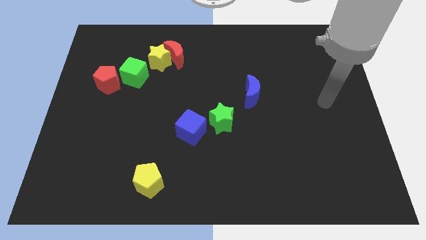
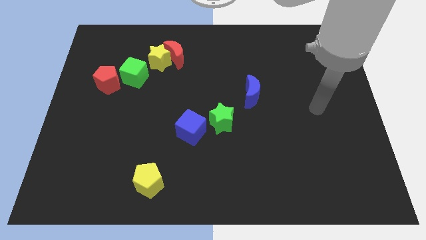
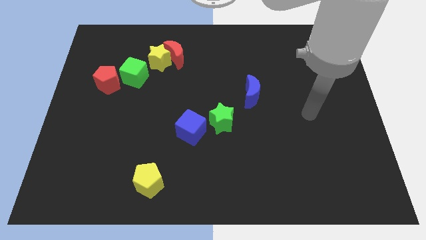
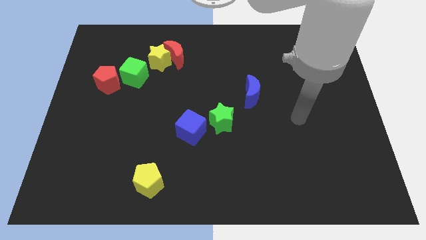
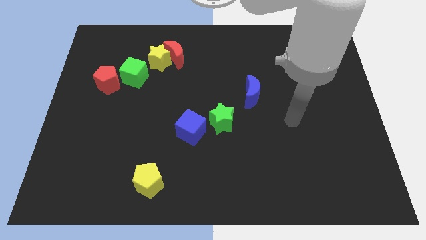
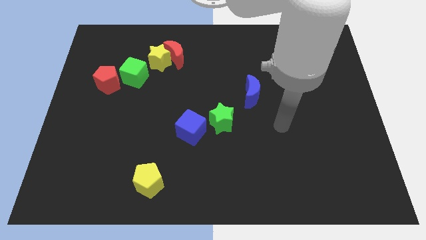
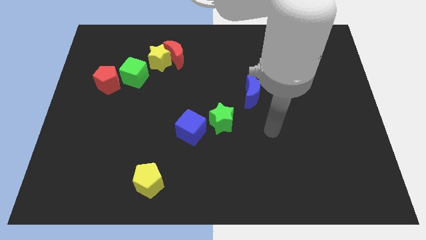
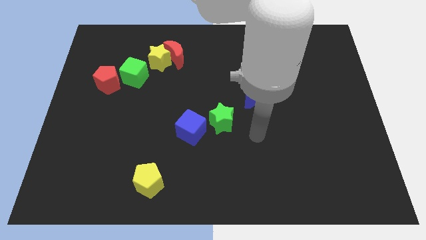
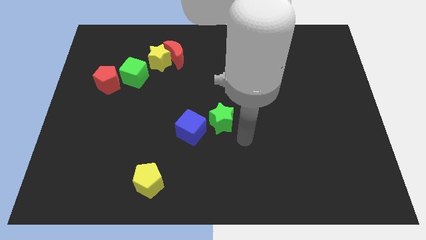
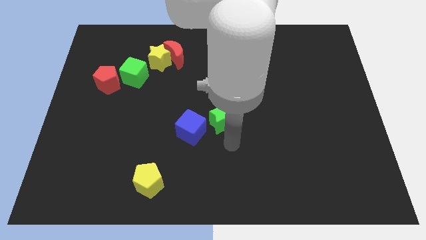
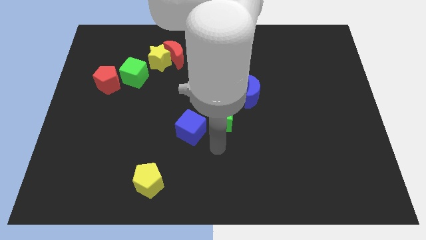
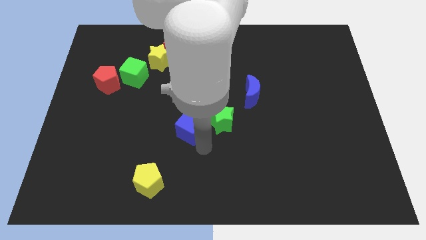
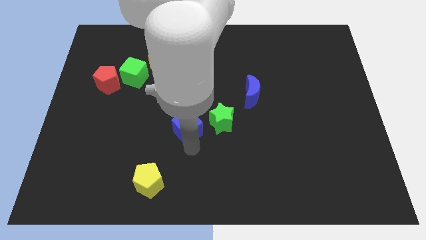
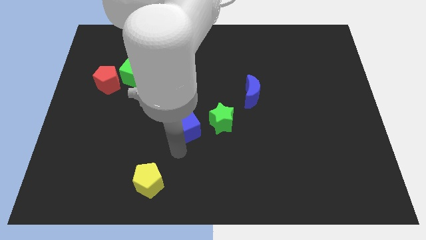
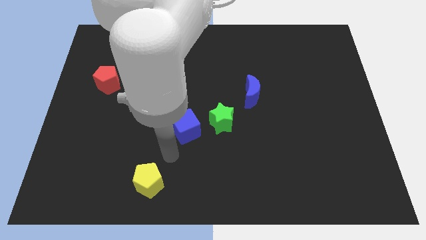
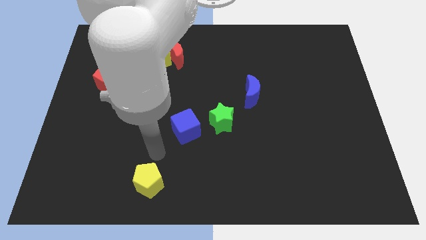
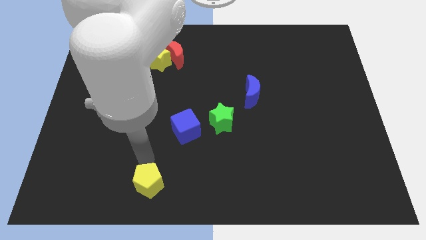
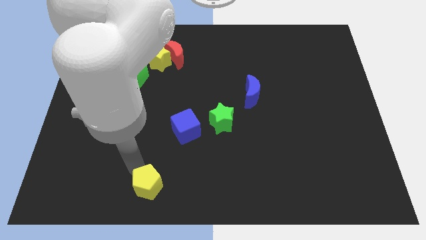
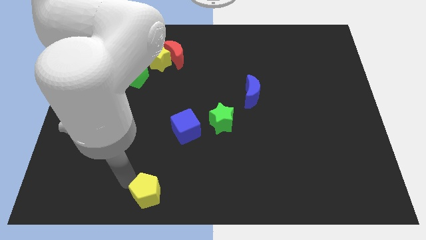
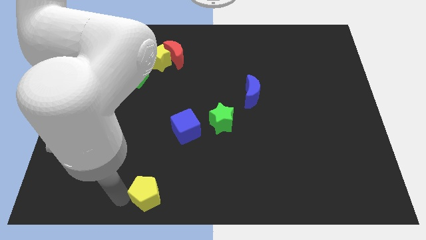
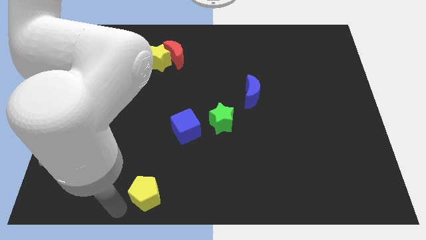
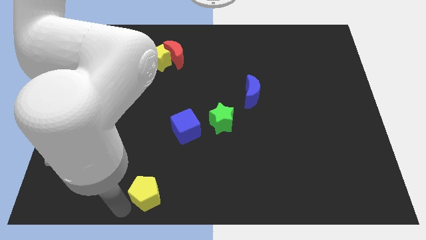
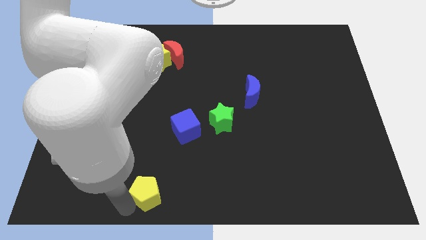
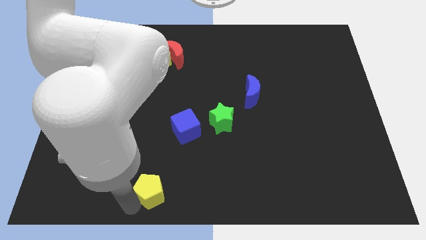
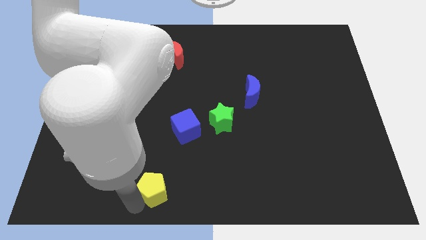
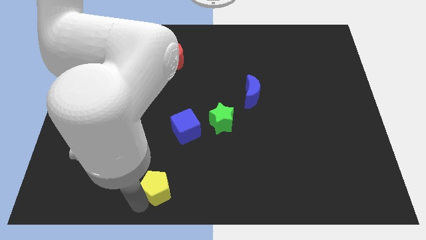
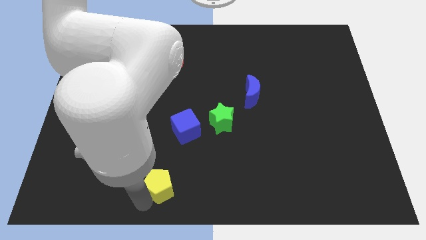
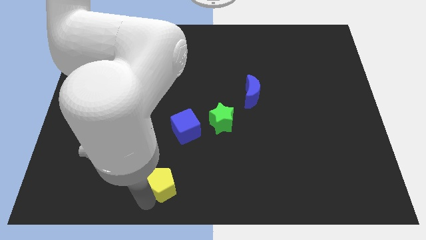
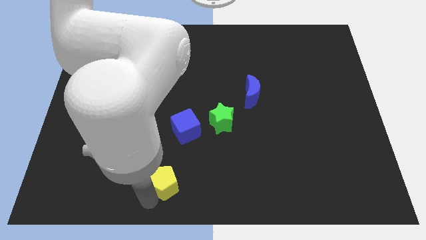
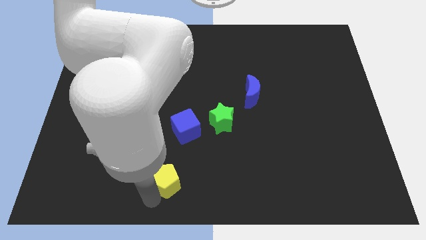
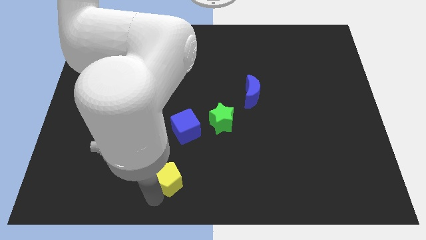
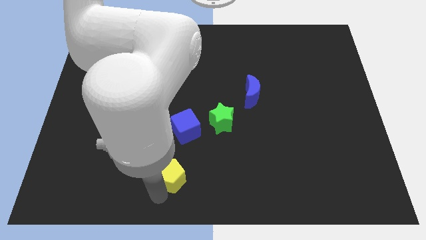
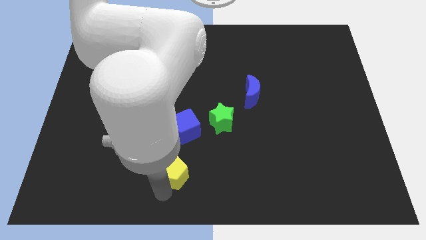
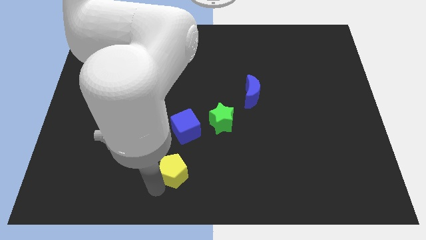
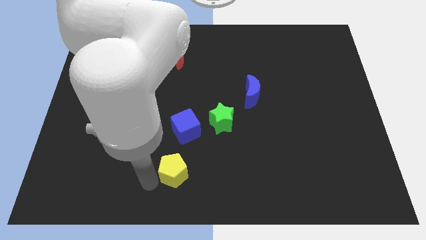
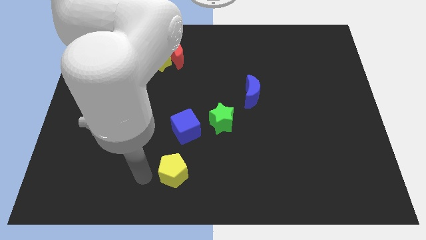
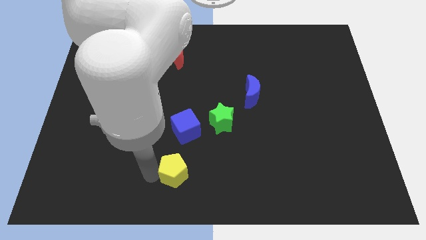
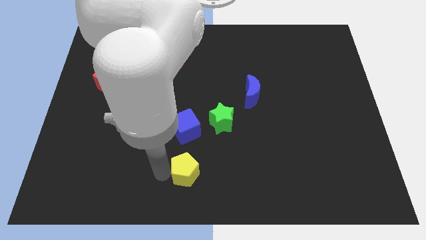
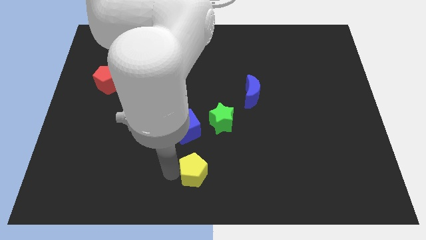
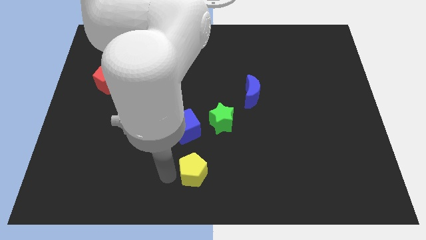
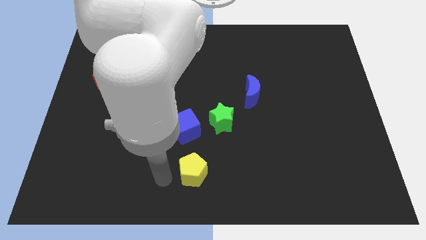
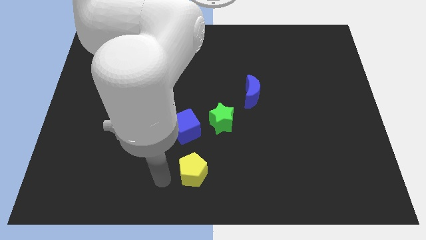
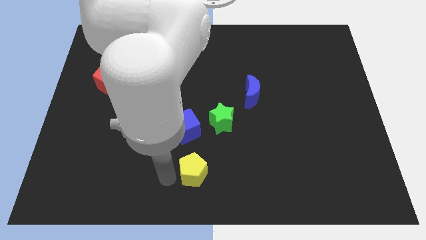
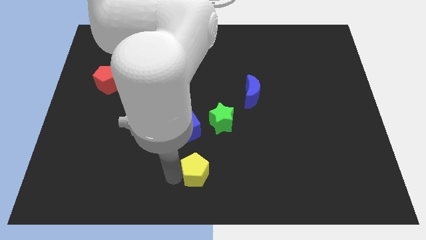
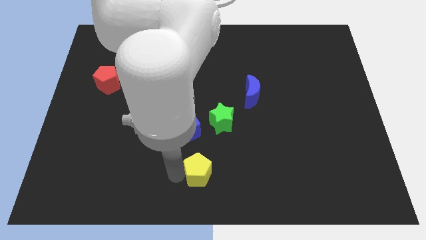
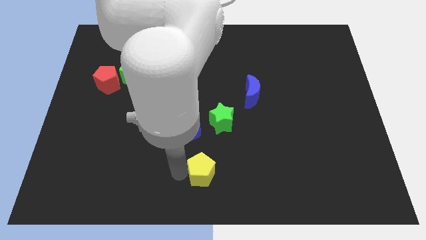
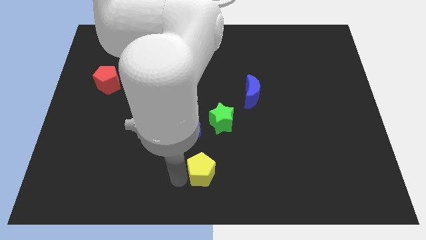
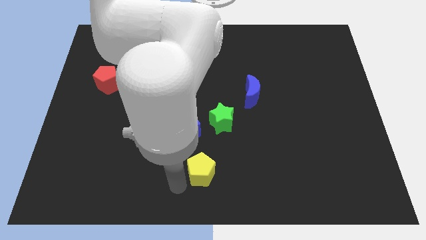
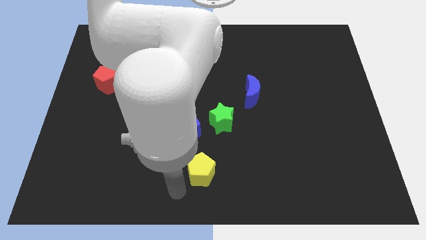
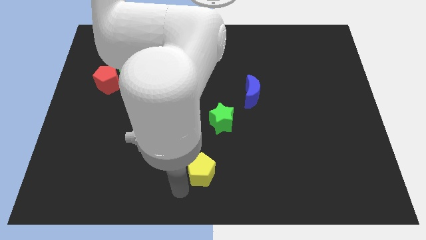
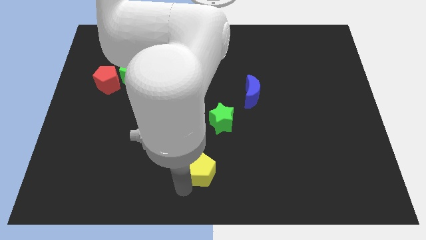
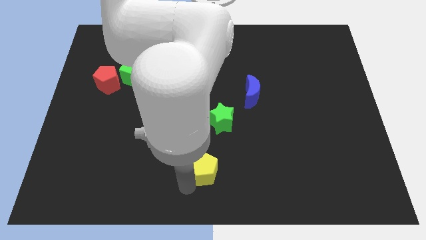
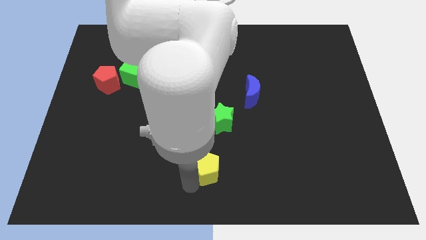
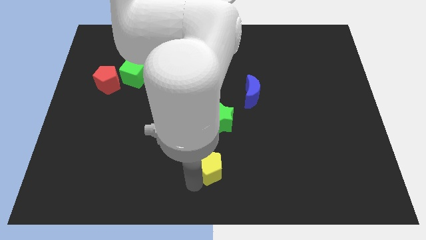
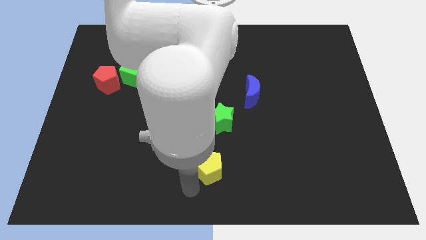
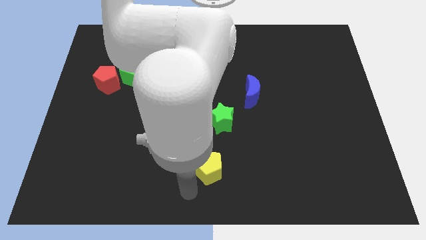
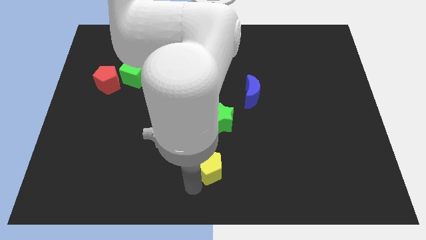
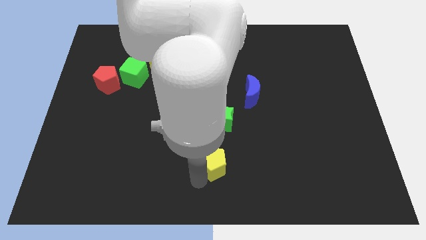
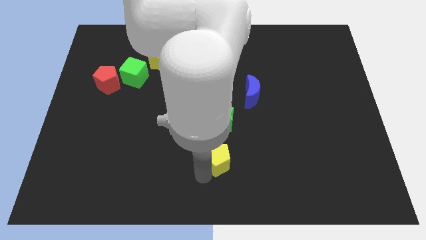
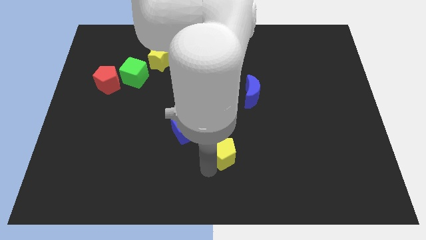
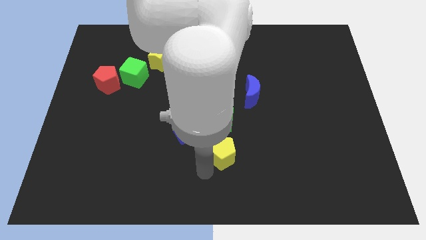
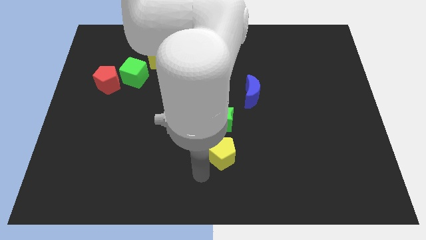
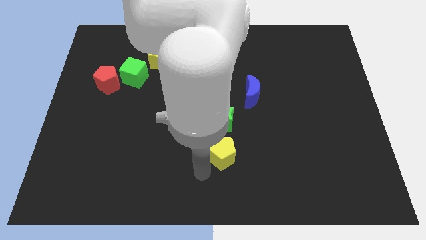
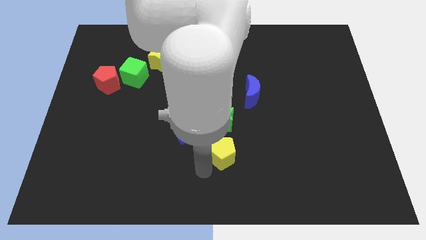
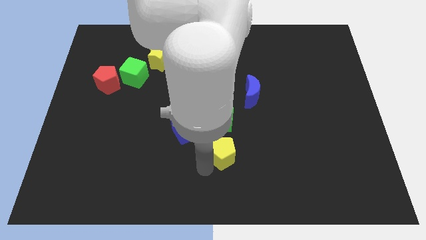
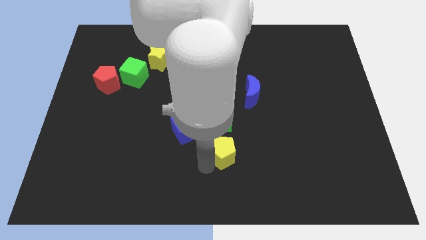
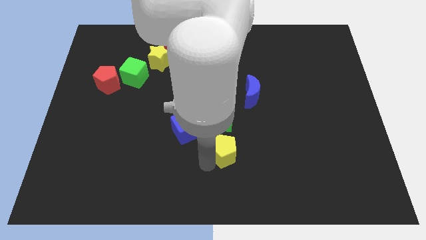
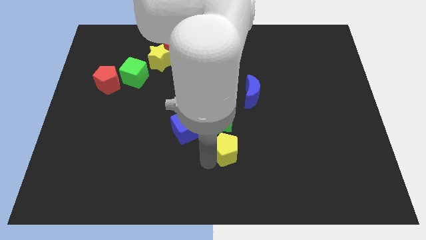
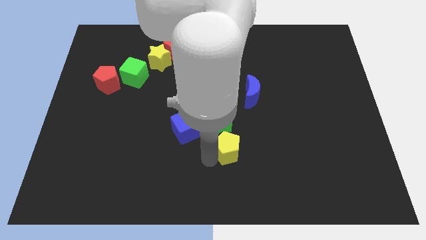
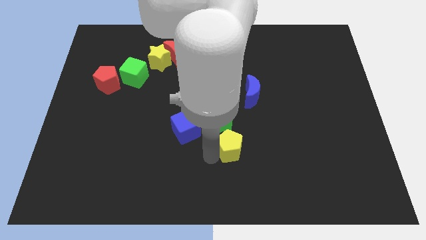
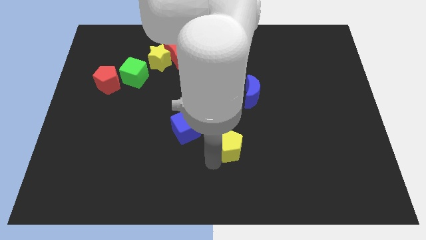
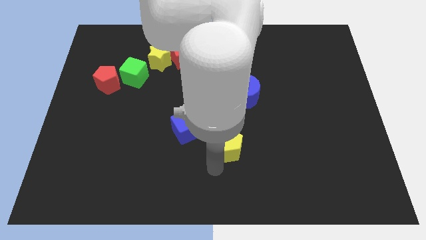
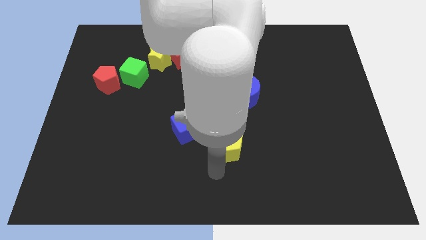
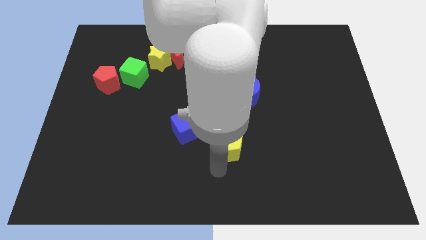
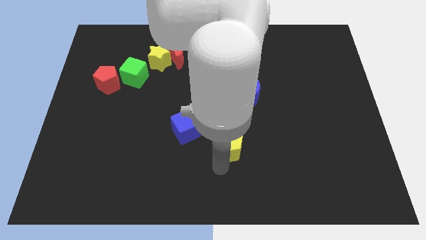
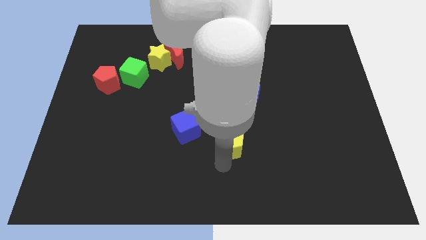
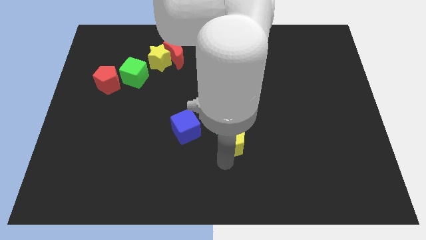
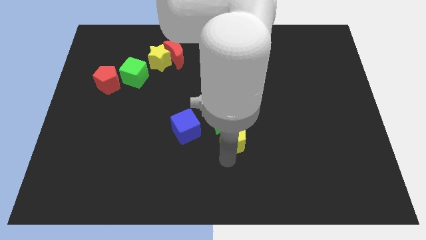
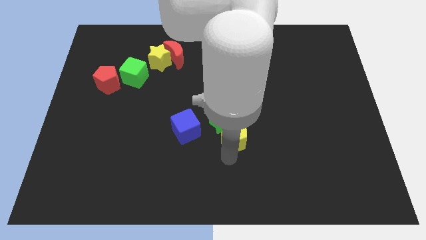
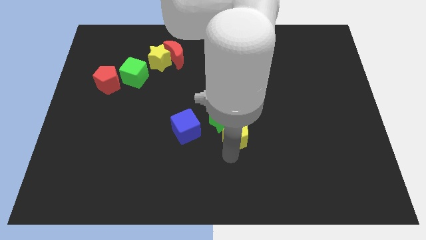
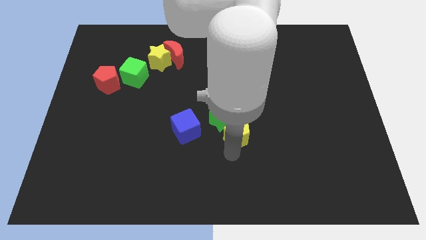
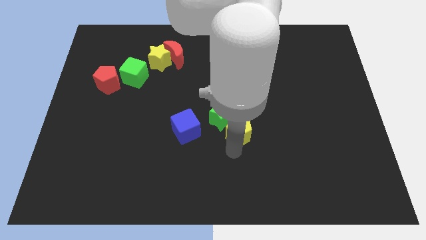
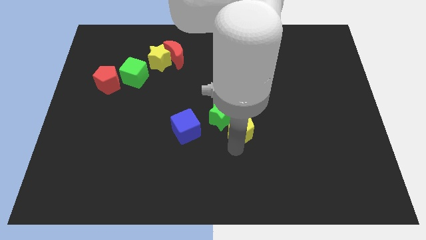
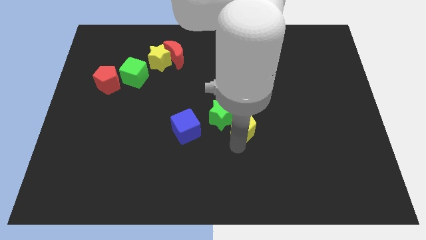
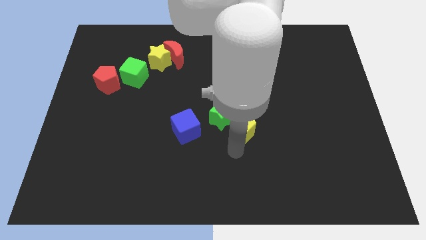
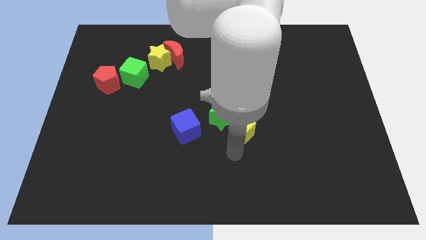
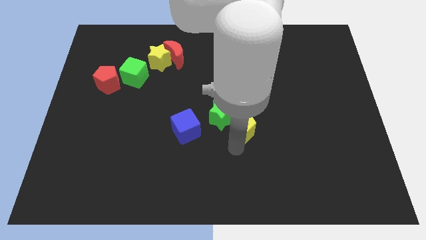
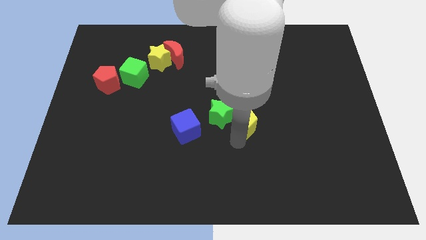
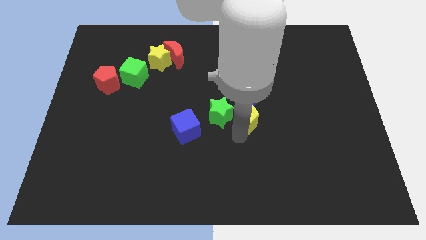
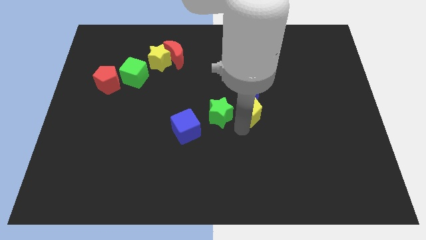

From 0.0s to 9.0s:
push the yellow pentagon towards the blue moon
